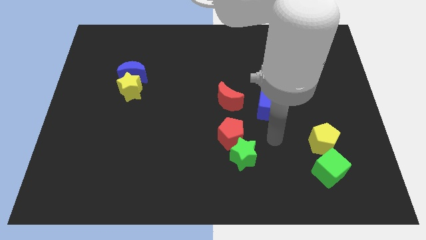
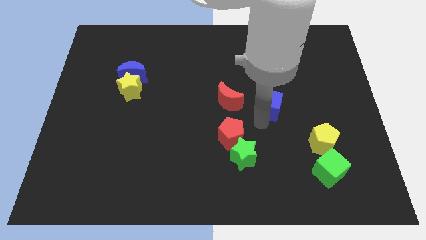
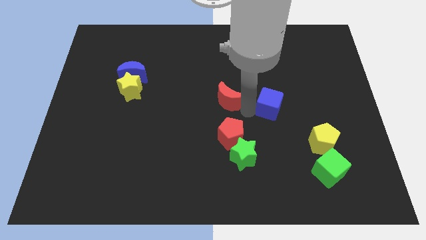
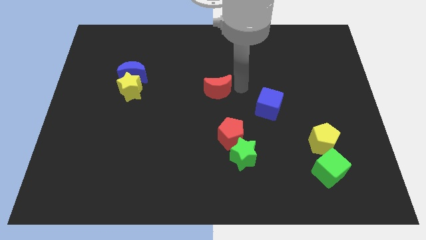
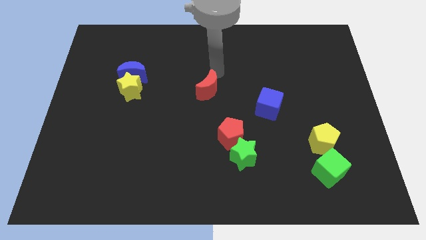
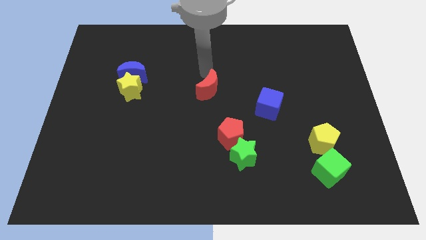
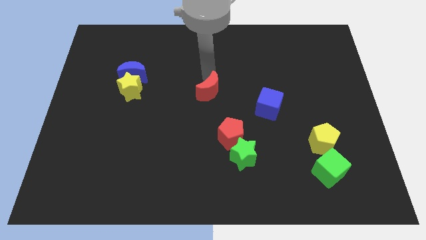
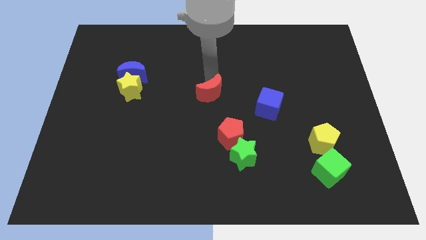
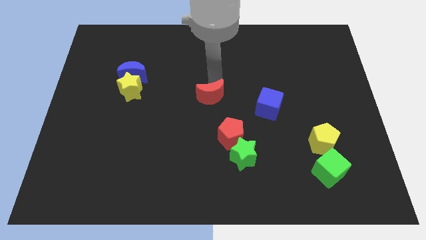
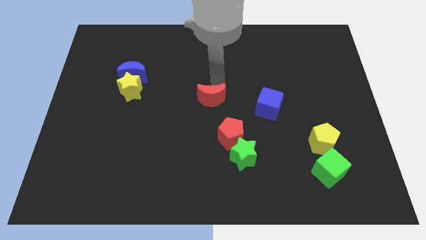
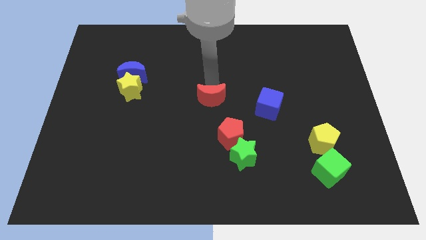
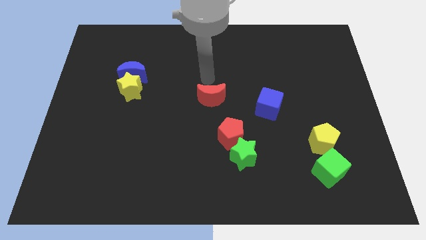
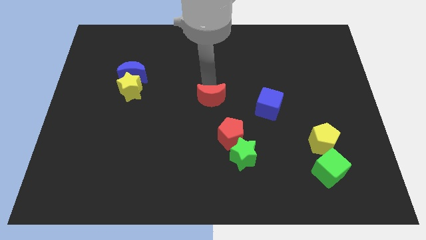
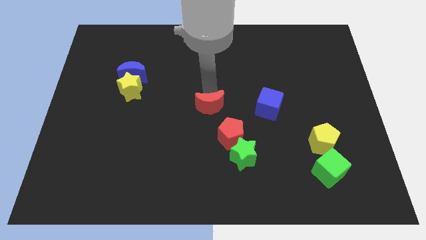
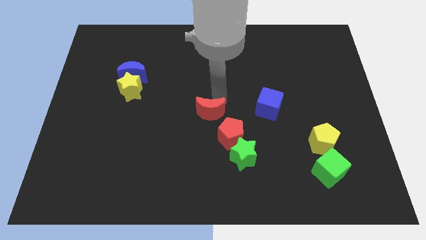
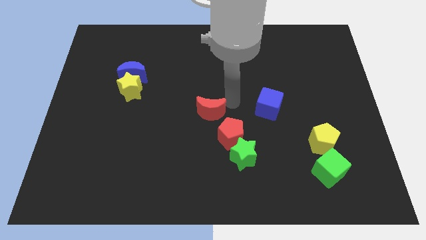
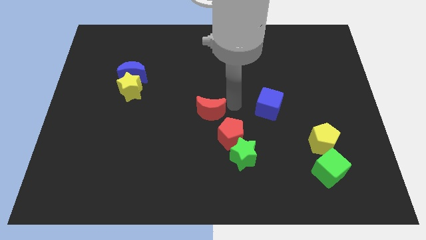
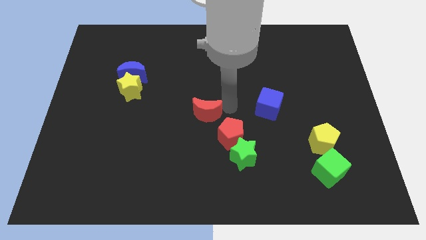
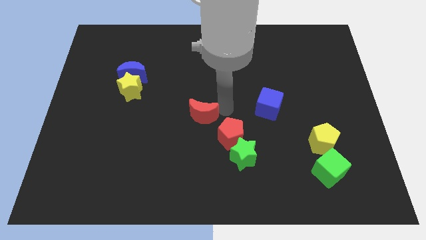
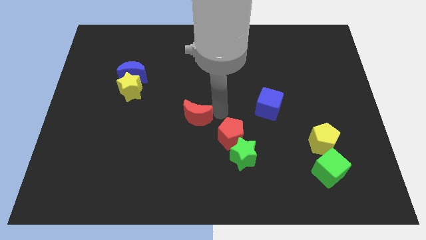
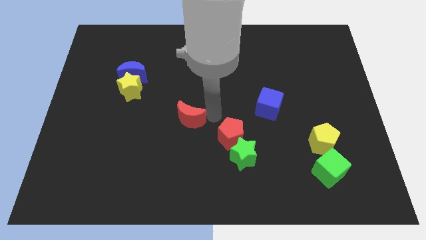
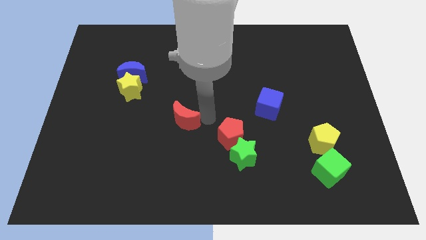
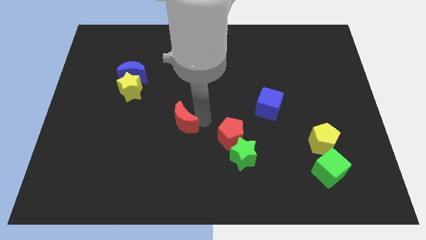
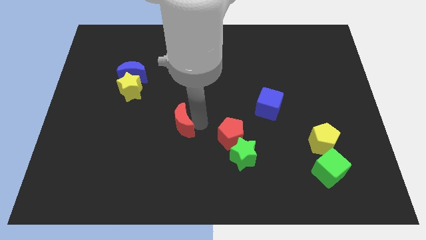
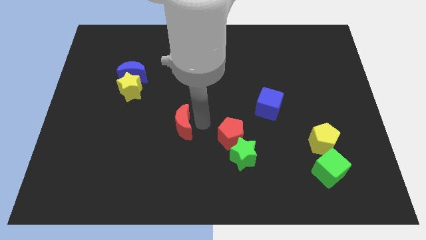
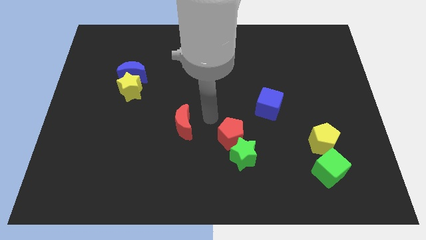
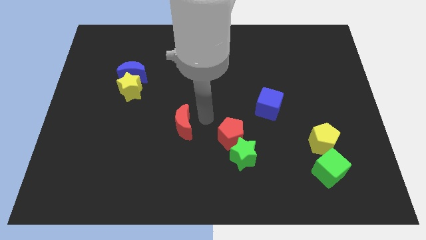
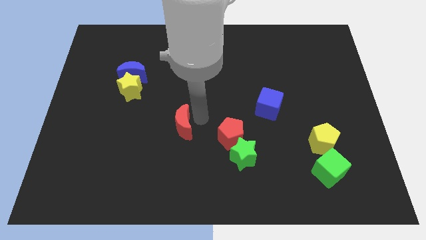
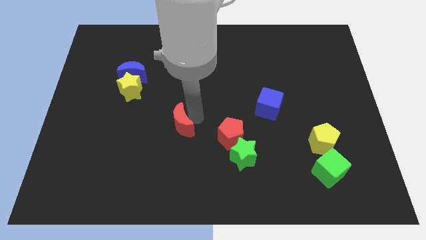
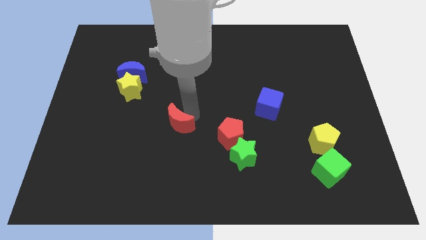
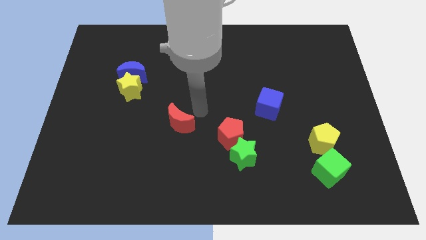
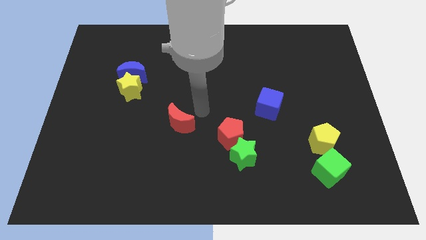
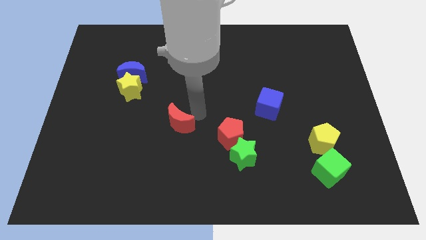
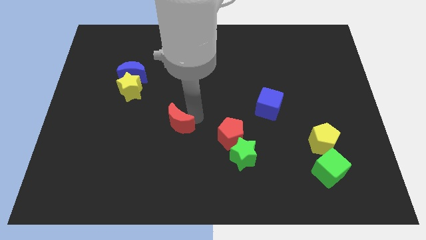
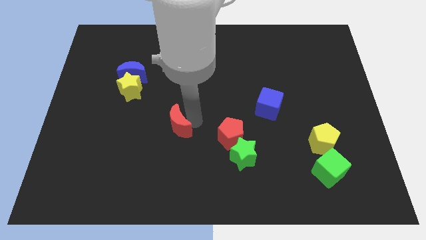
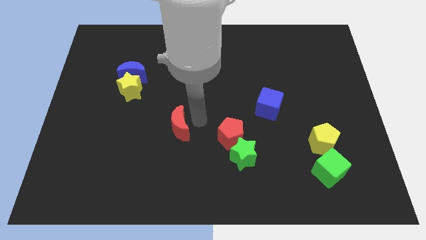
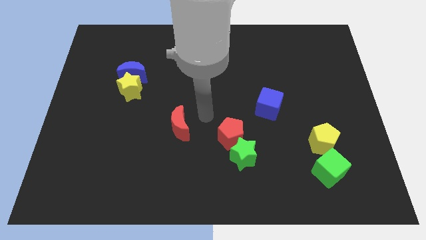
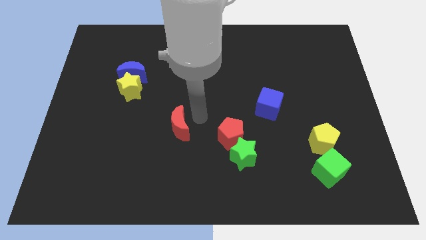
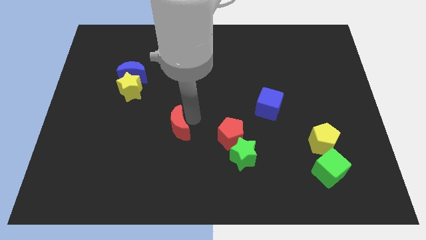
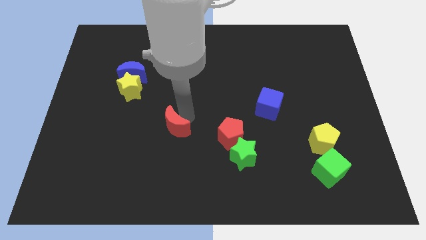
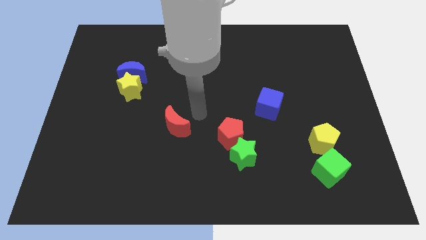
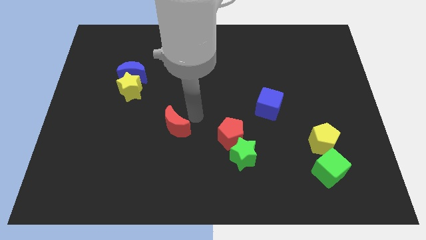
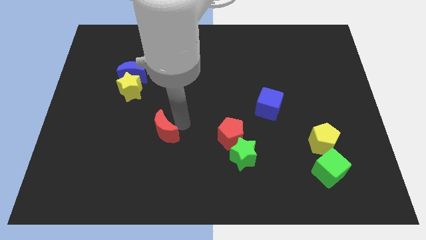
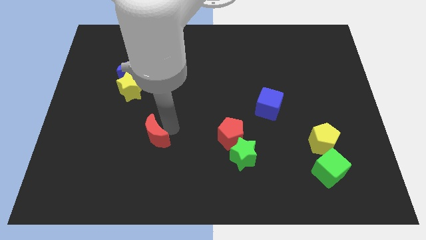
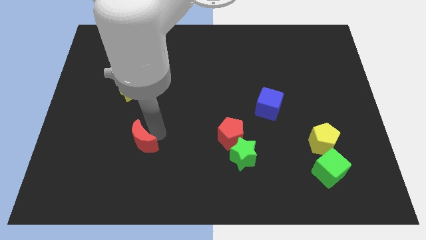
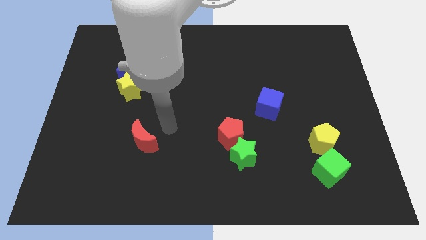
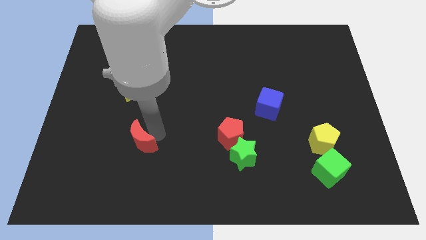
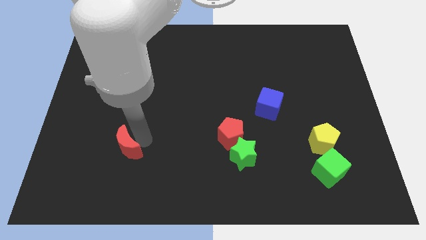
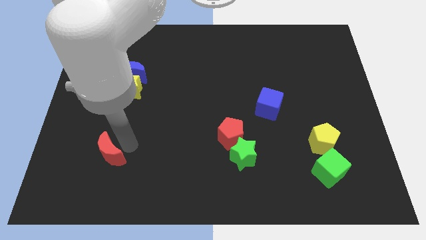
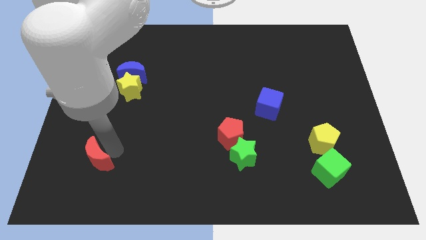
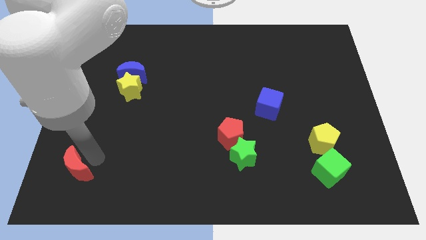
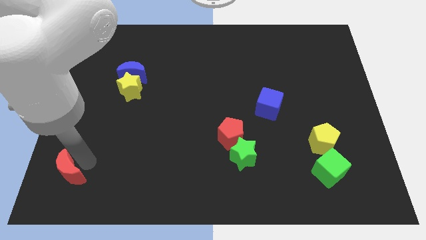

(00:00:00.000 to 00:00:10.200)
slide the red moon to the bottom left

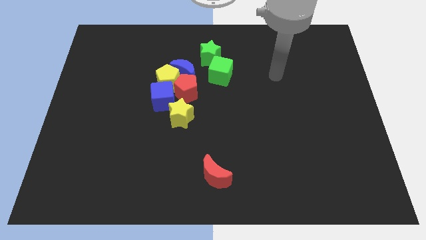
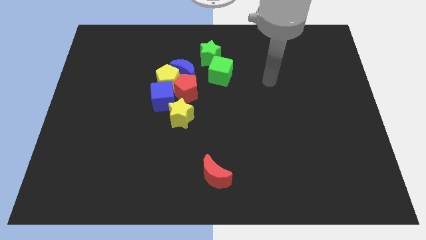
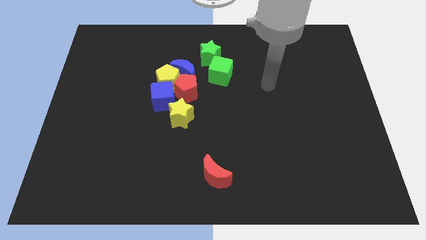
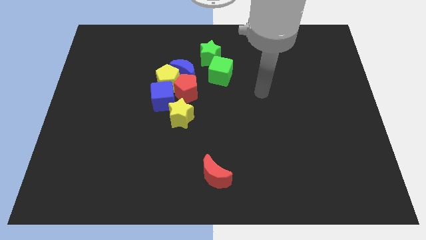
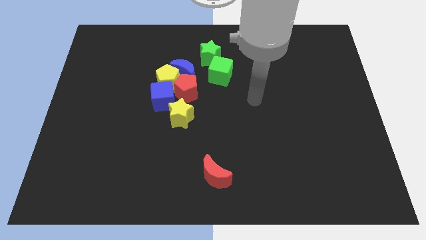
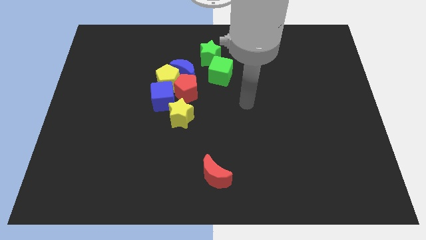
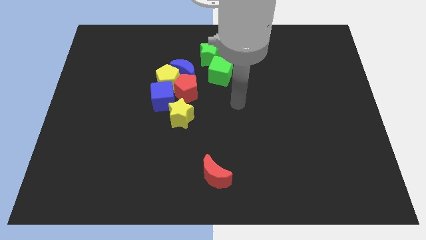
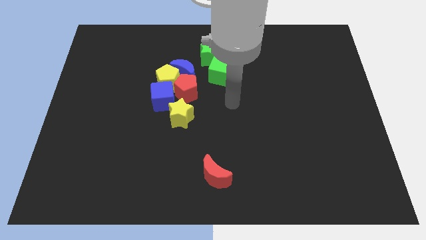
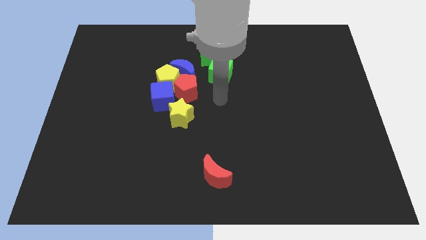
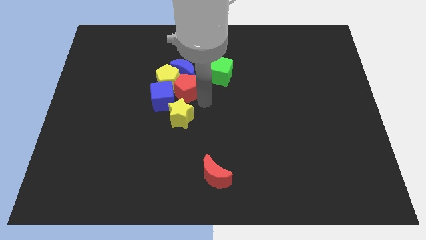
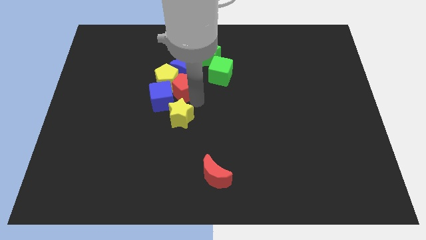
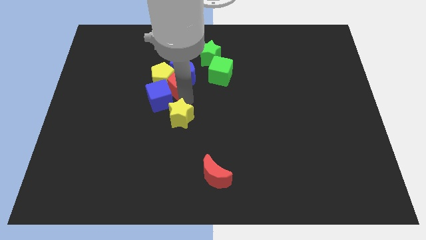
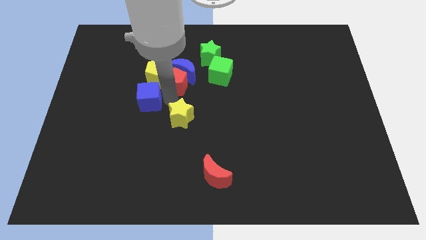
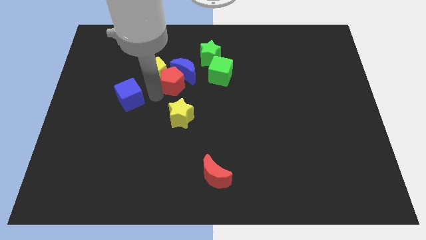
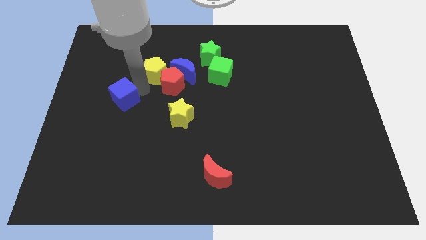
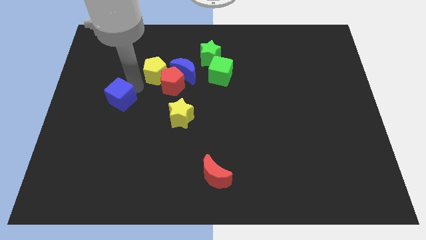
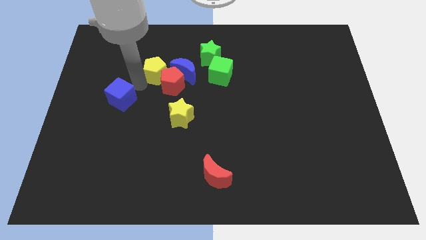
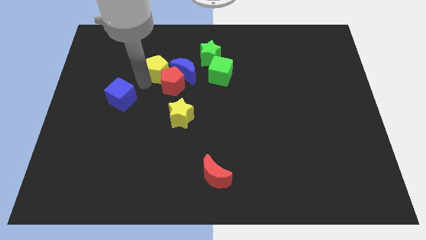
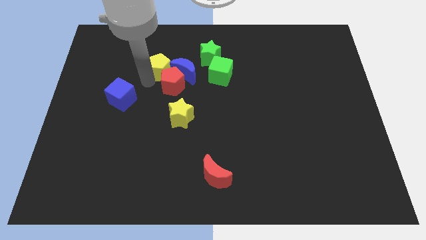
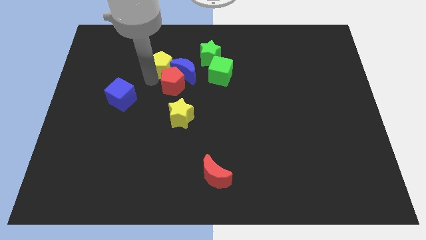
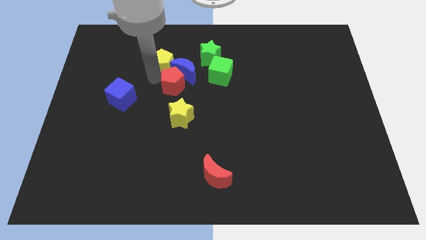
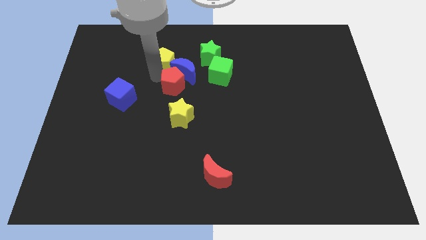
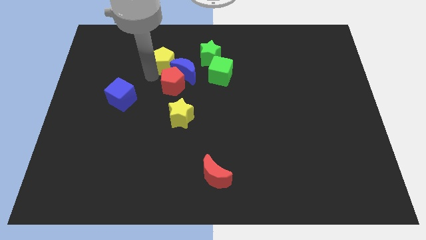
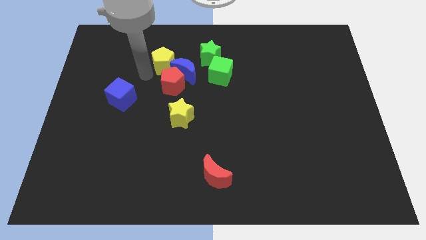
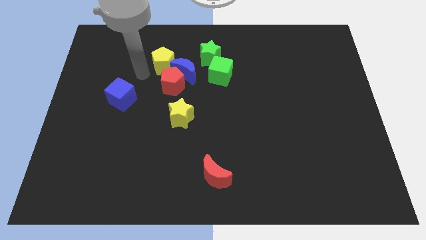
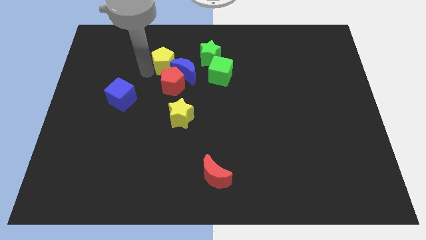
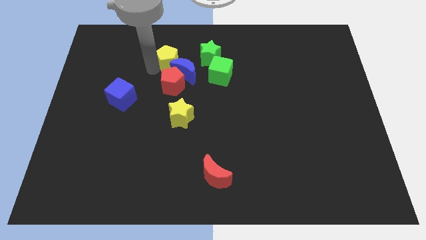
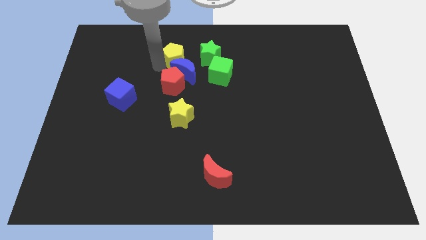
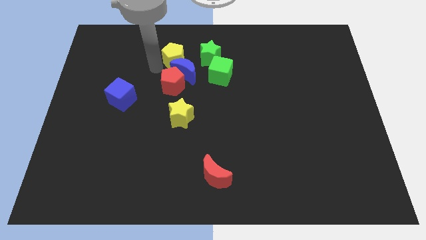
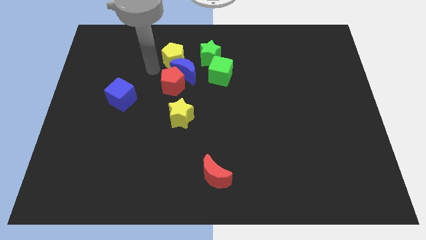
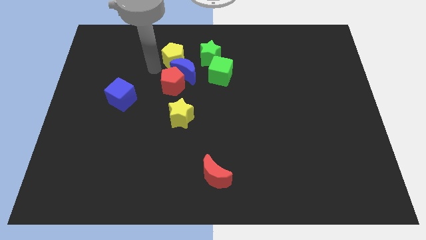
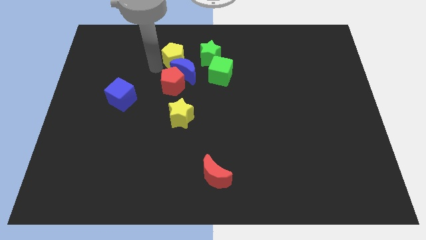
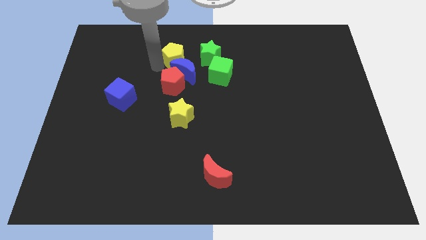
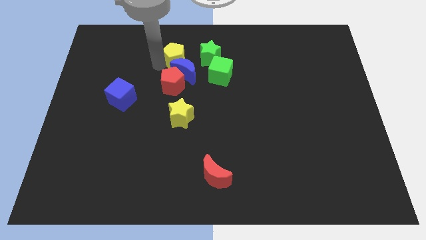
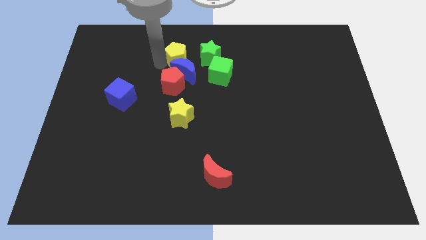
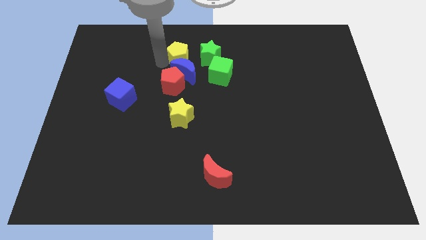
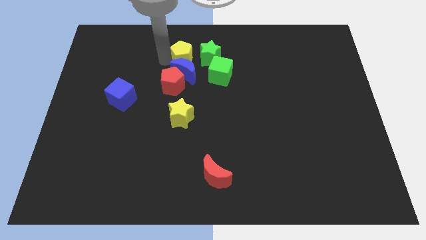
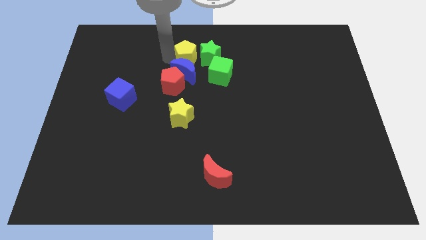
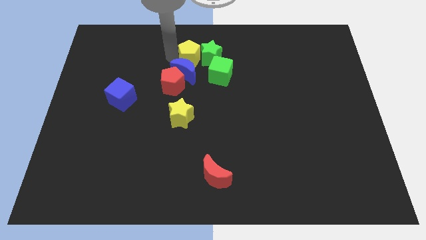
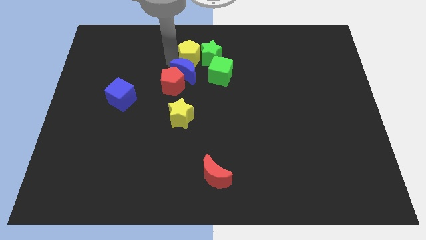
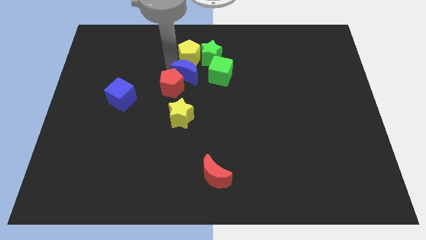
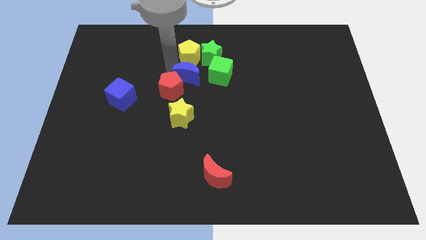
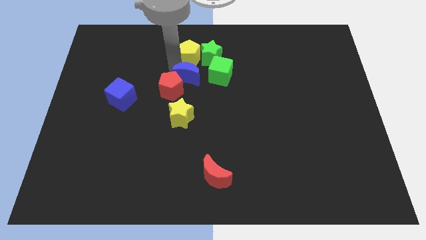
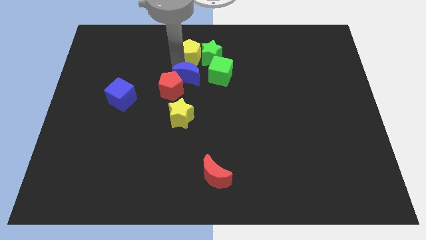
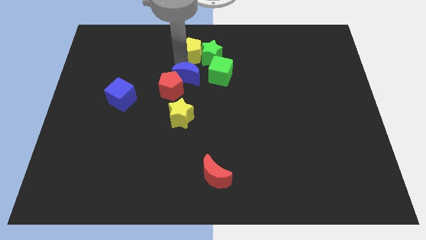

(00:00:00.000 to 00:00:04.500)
put the yellow pentagon to the towards your base
